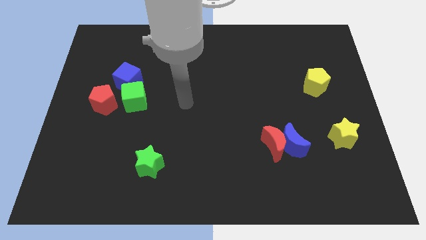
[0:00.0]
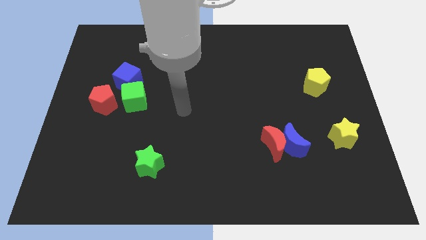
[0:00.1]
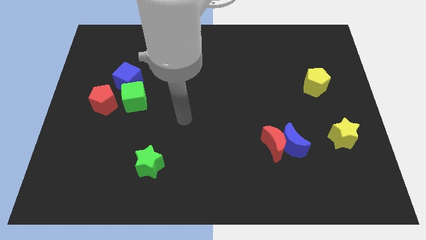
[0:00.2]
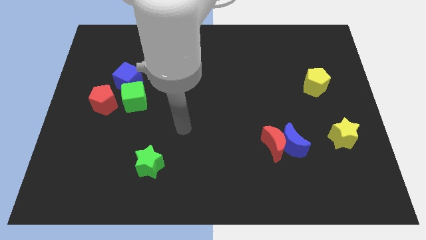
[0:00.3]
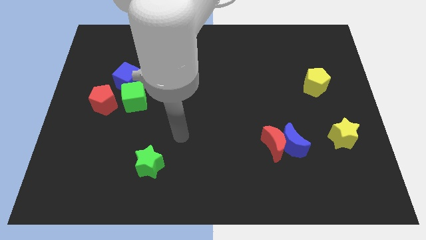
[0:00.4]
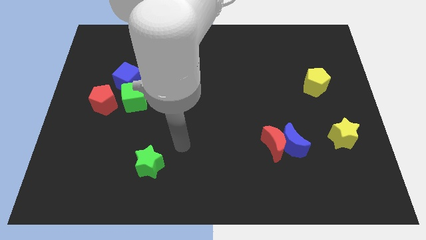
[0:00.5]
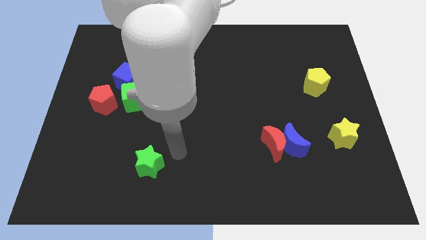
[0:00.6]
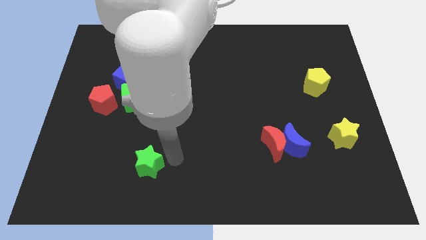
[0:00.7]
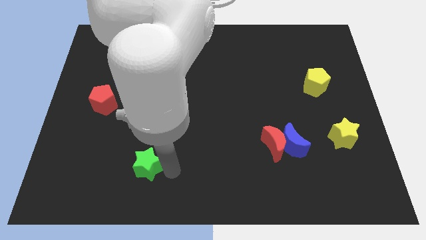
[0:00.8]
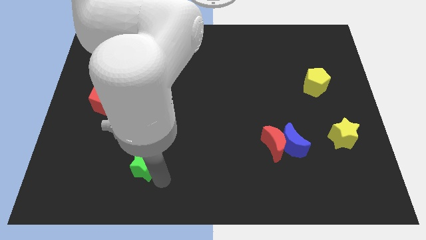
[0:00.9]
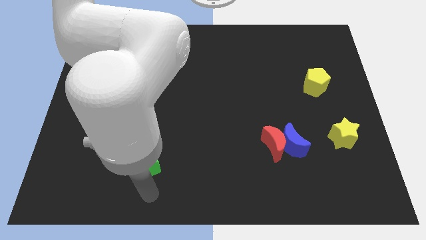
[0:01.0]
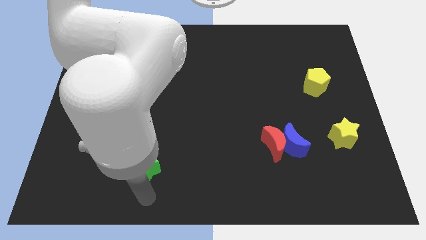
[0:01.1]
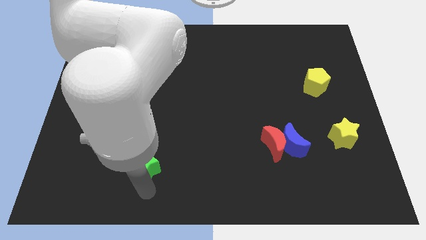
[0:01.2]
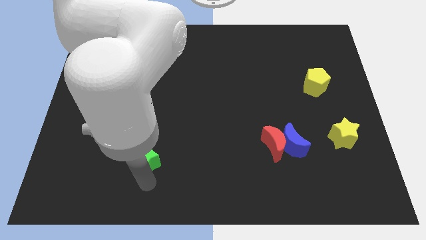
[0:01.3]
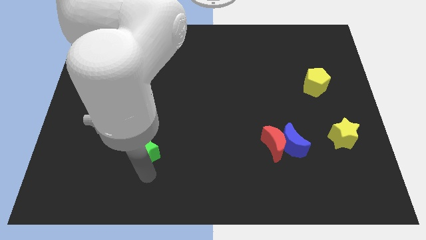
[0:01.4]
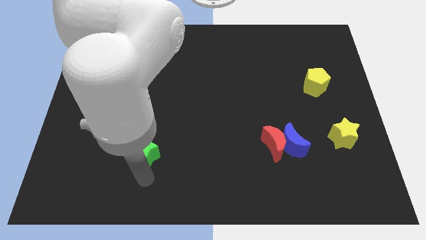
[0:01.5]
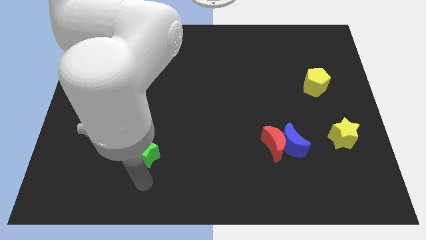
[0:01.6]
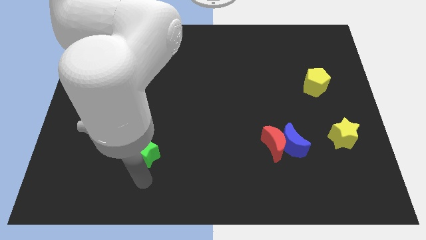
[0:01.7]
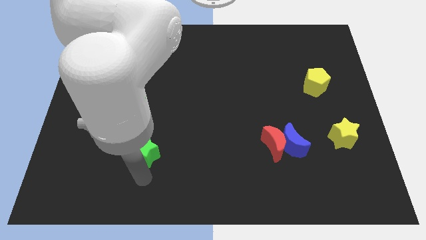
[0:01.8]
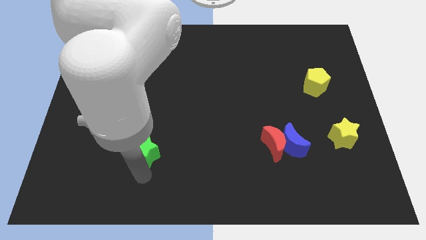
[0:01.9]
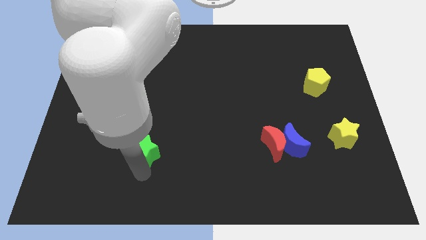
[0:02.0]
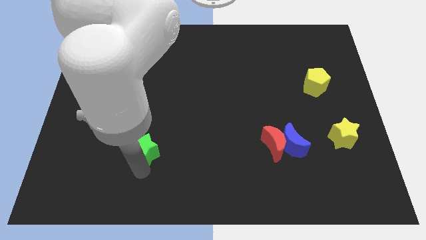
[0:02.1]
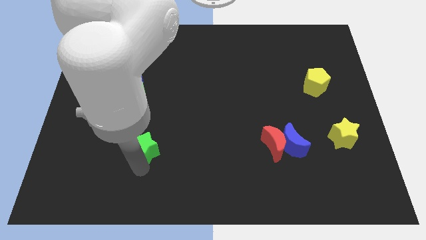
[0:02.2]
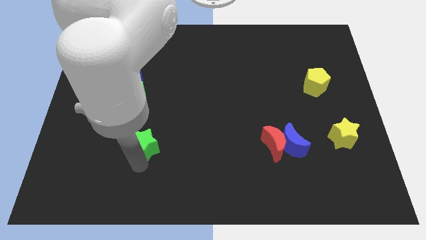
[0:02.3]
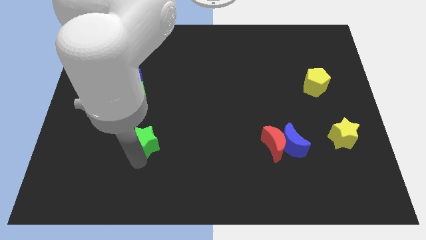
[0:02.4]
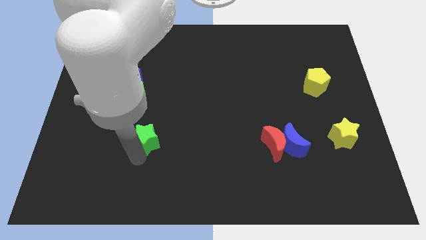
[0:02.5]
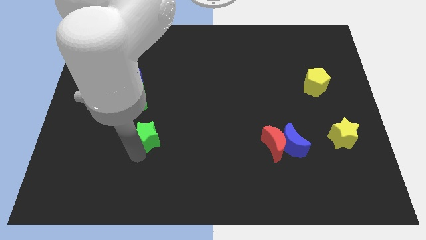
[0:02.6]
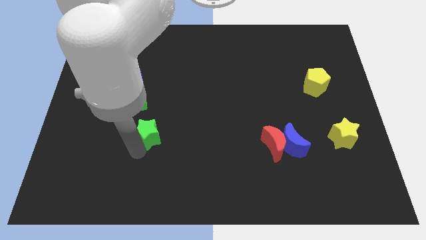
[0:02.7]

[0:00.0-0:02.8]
push the green star somewhat up

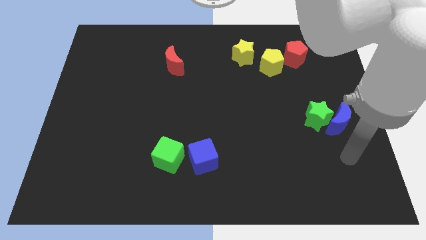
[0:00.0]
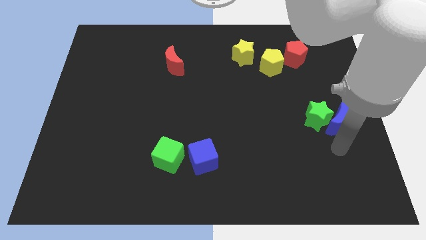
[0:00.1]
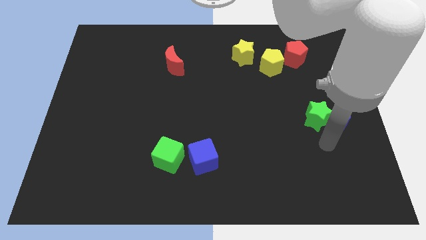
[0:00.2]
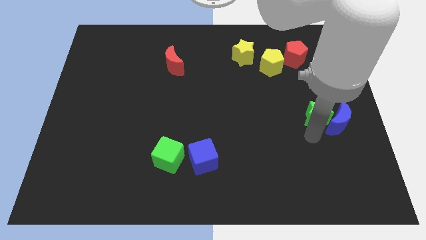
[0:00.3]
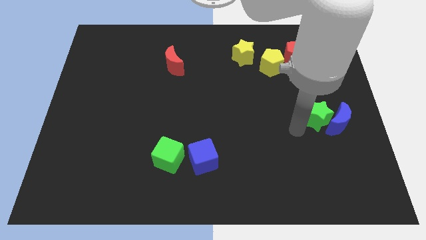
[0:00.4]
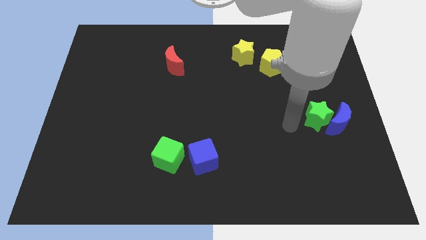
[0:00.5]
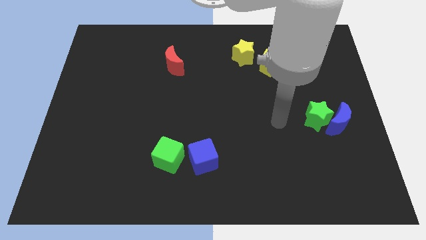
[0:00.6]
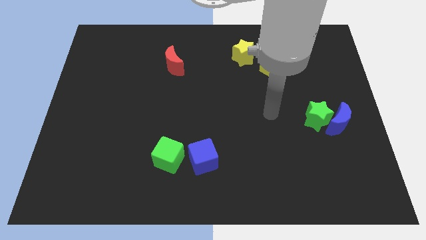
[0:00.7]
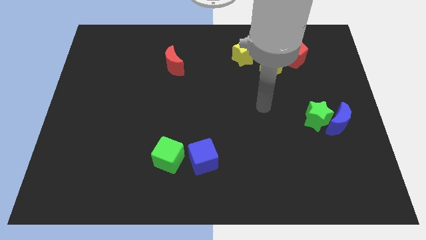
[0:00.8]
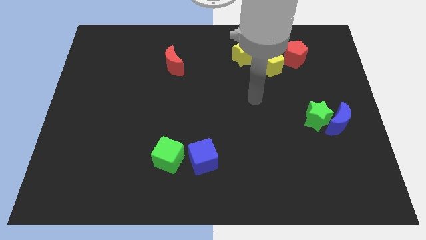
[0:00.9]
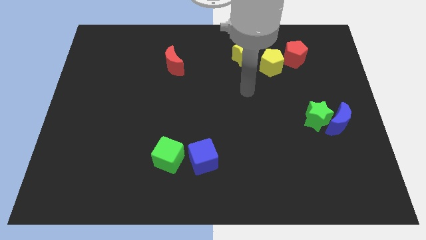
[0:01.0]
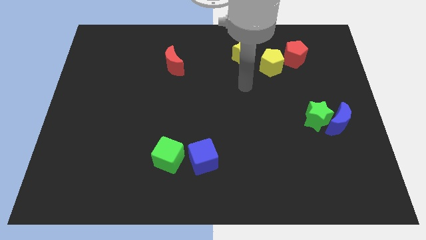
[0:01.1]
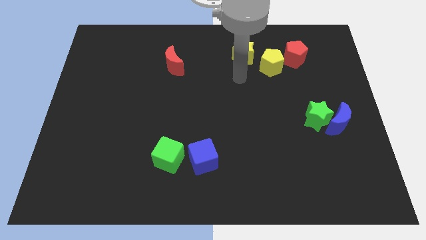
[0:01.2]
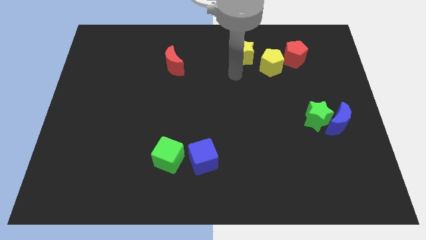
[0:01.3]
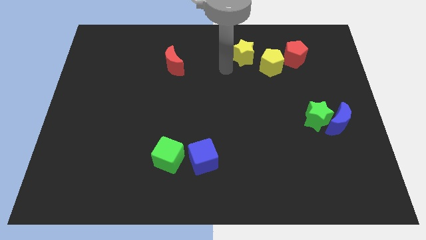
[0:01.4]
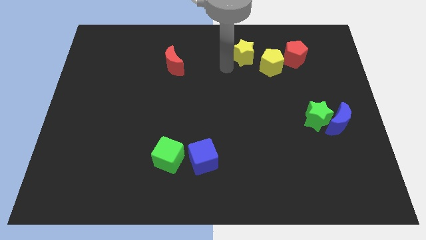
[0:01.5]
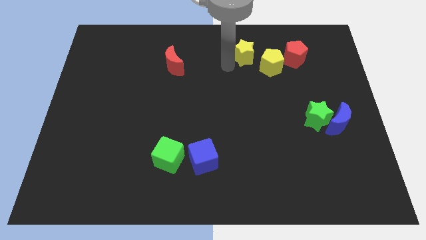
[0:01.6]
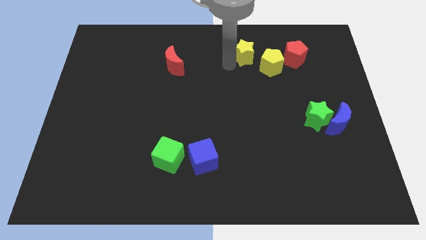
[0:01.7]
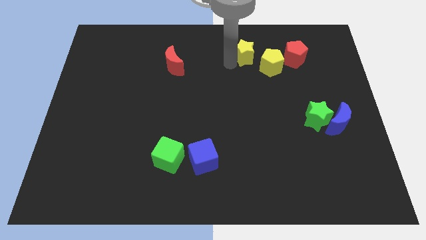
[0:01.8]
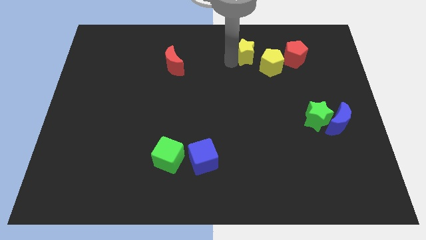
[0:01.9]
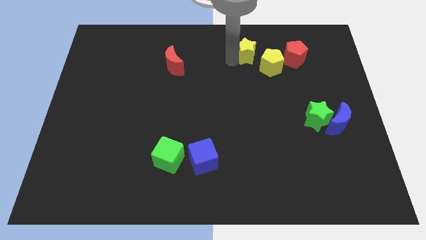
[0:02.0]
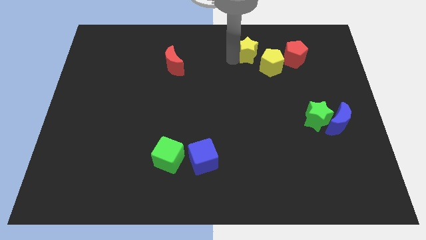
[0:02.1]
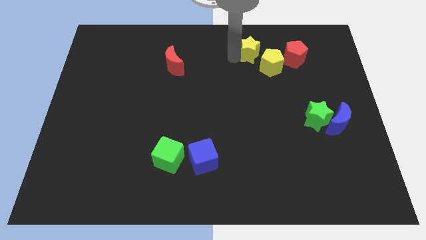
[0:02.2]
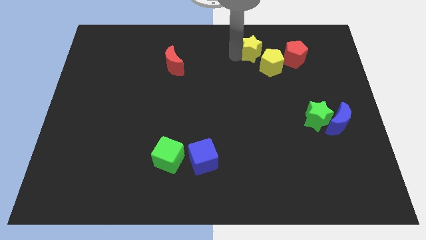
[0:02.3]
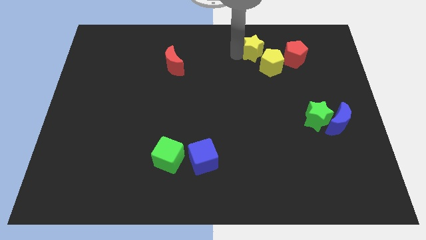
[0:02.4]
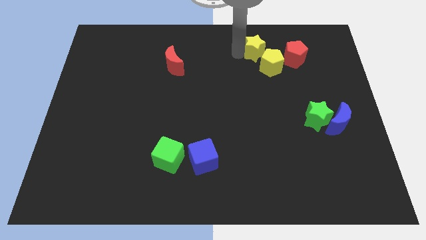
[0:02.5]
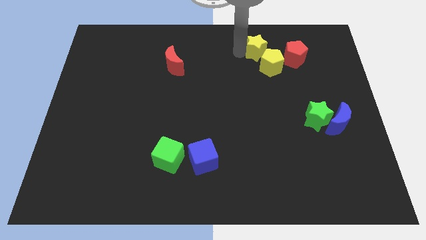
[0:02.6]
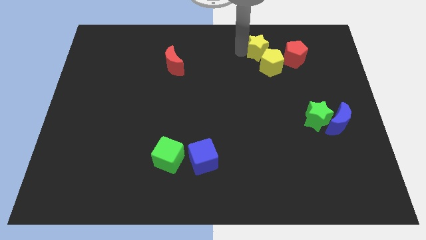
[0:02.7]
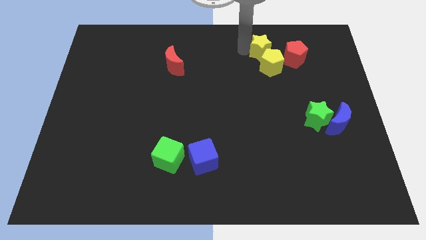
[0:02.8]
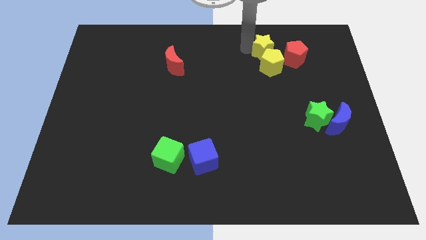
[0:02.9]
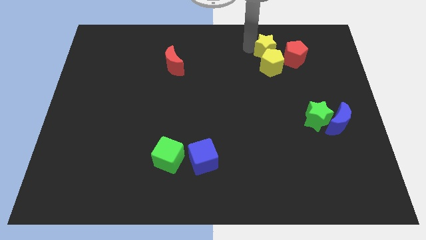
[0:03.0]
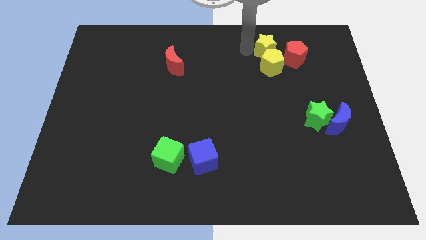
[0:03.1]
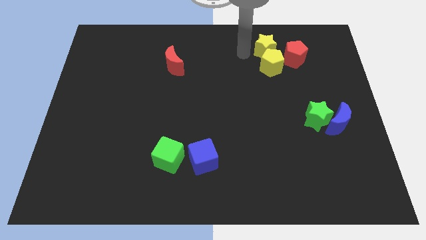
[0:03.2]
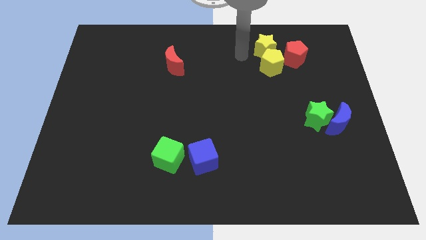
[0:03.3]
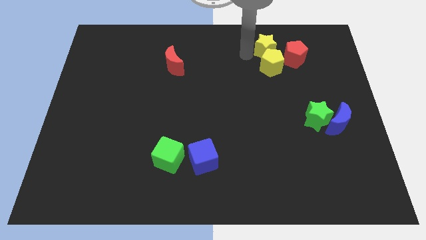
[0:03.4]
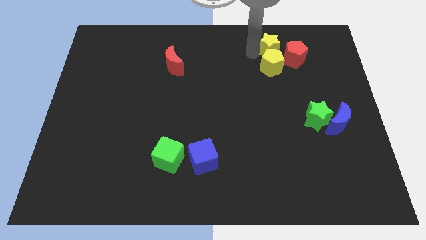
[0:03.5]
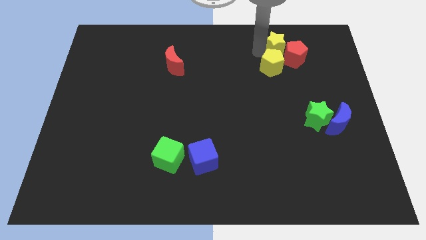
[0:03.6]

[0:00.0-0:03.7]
push the yellow star a little bit to the right

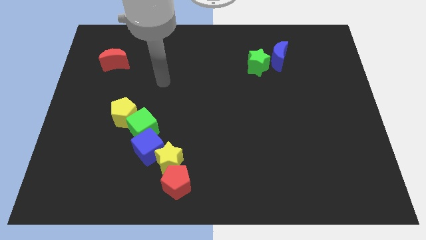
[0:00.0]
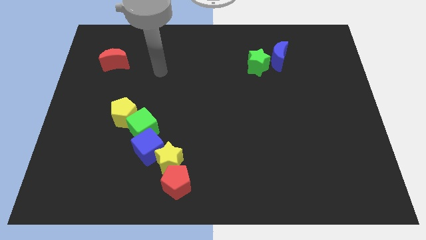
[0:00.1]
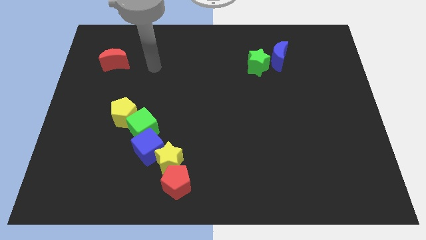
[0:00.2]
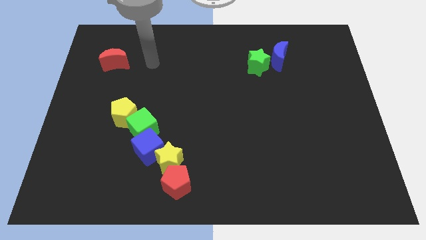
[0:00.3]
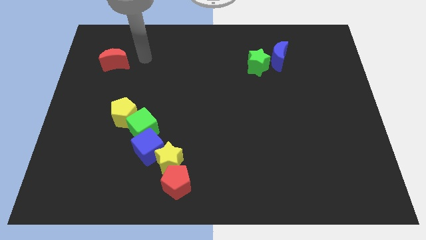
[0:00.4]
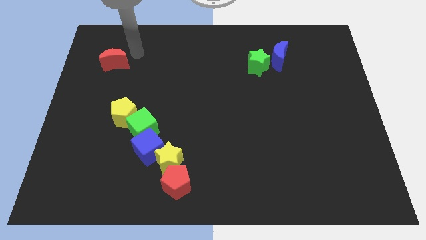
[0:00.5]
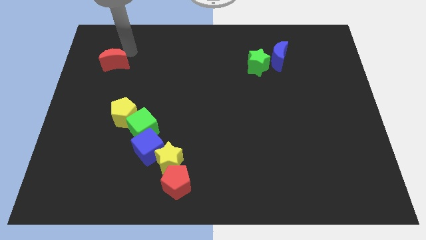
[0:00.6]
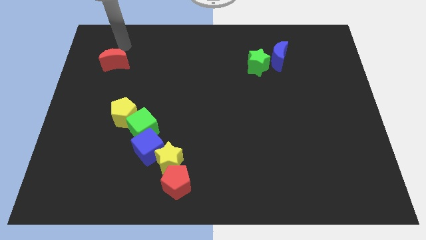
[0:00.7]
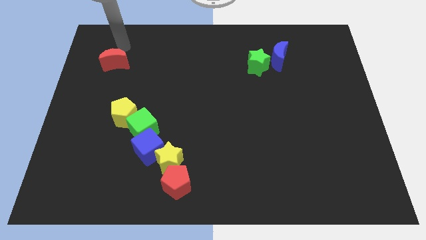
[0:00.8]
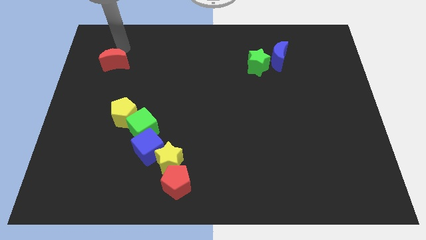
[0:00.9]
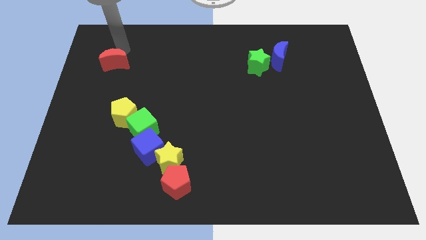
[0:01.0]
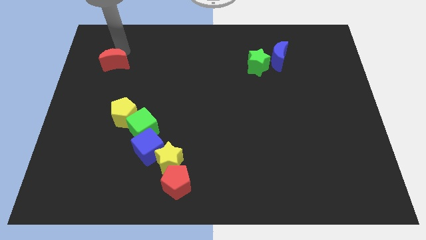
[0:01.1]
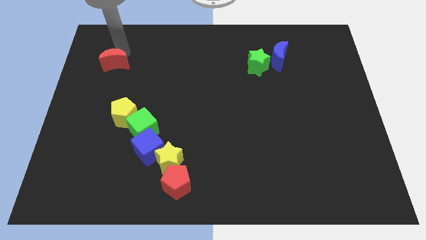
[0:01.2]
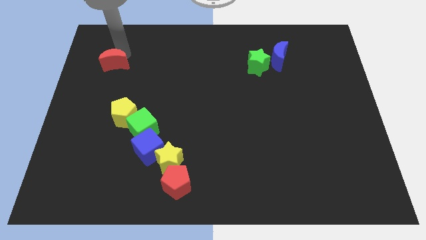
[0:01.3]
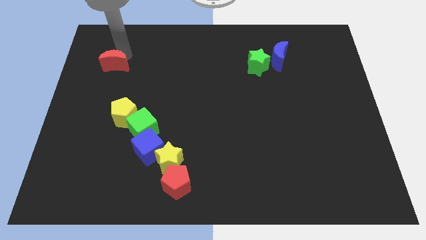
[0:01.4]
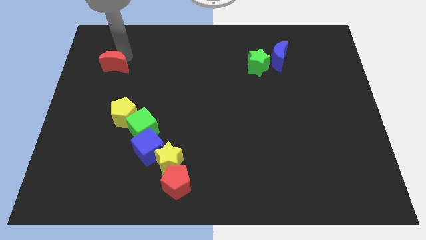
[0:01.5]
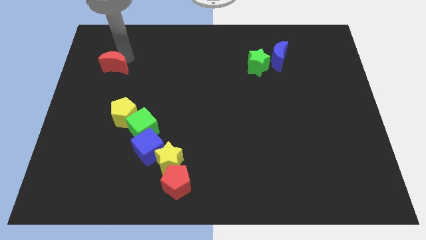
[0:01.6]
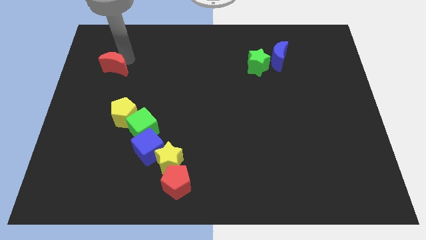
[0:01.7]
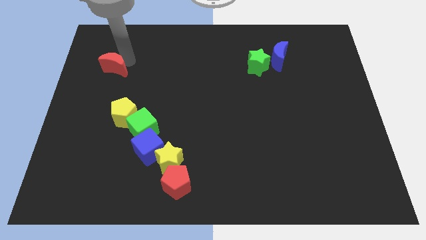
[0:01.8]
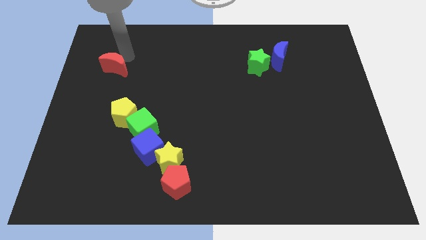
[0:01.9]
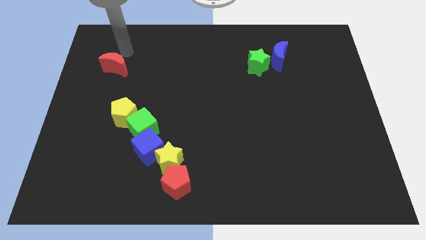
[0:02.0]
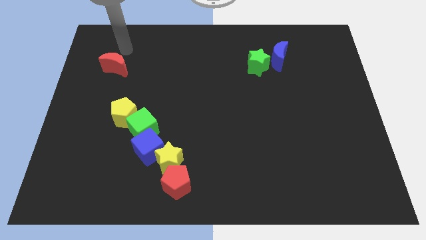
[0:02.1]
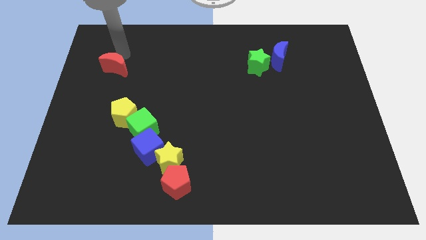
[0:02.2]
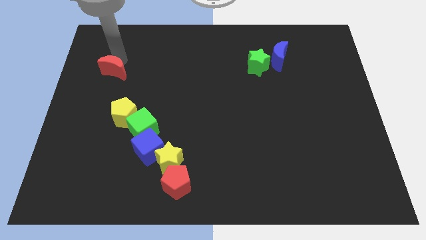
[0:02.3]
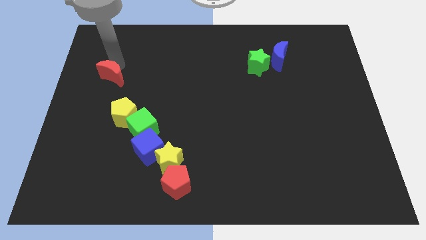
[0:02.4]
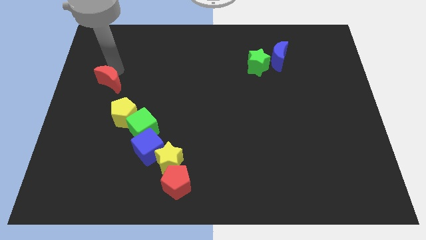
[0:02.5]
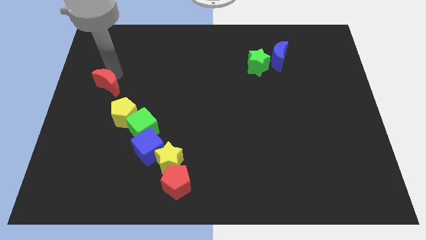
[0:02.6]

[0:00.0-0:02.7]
slightly push the red moon down
